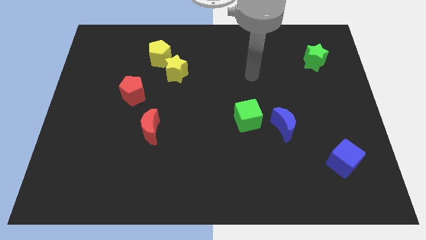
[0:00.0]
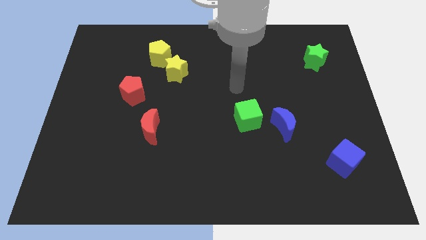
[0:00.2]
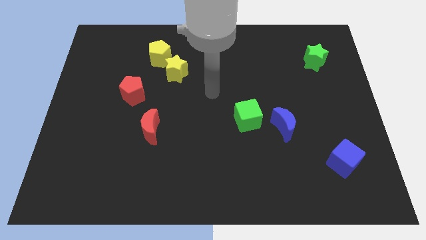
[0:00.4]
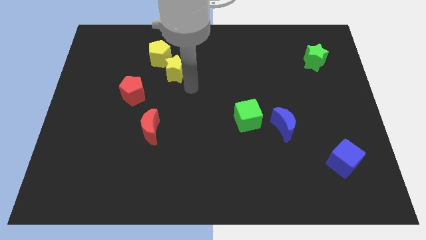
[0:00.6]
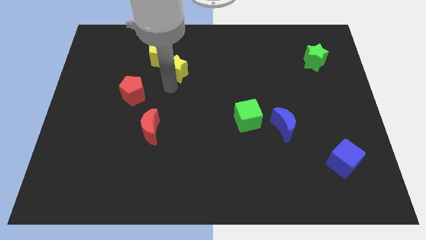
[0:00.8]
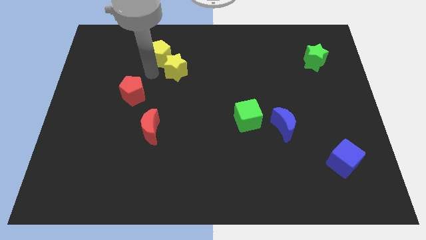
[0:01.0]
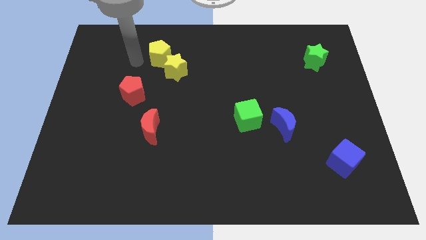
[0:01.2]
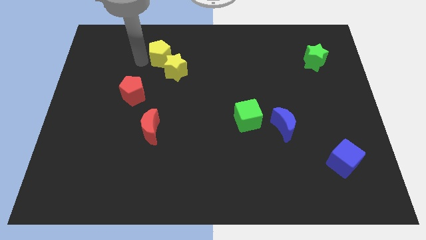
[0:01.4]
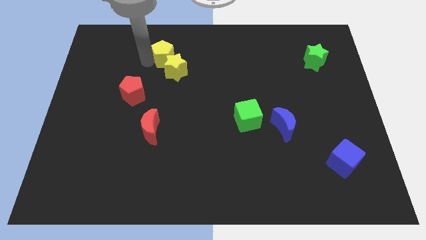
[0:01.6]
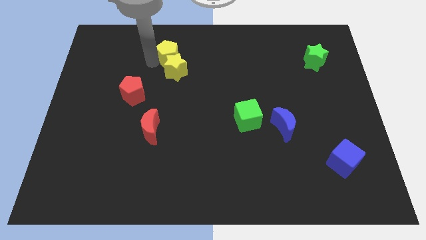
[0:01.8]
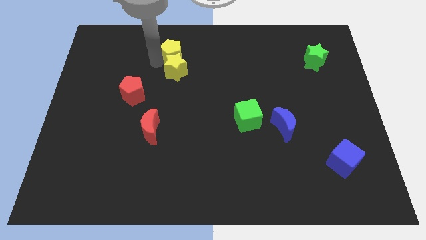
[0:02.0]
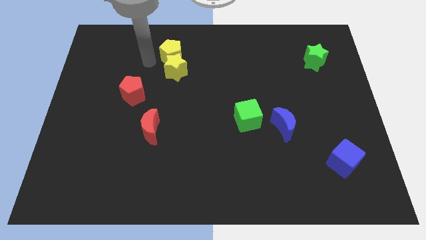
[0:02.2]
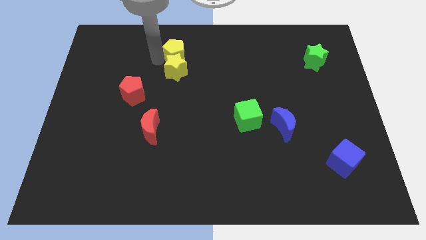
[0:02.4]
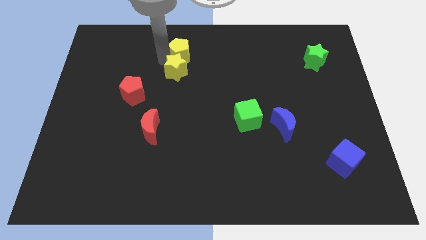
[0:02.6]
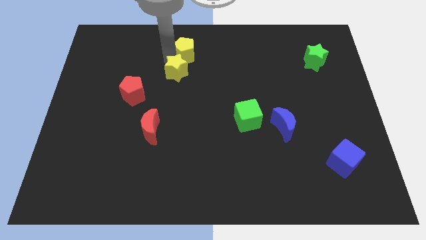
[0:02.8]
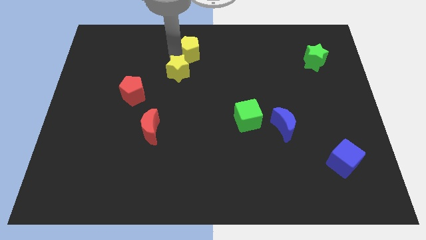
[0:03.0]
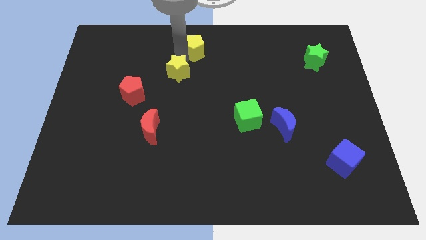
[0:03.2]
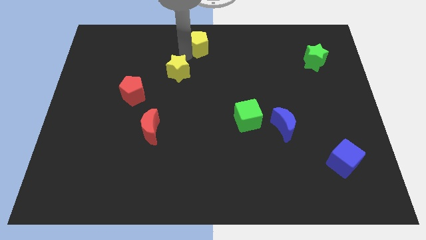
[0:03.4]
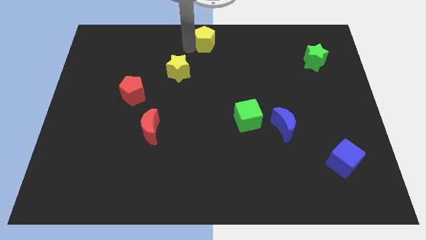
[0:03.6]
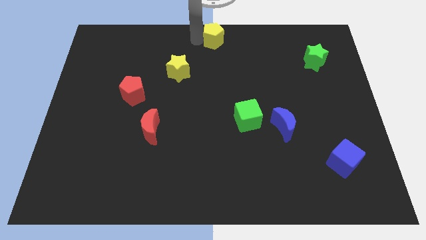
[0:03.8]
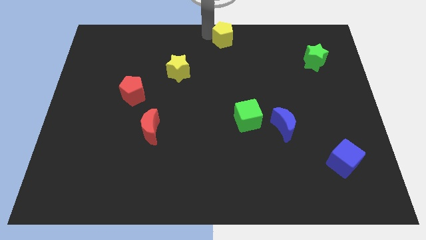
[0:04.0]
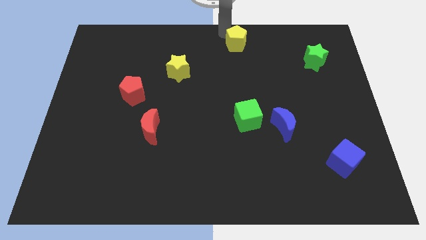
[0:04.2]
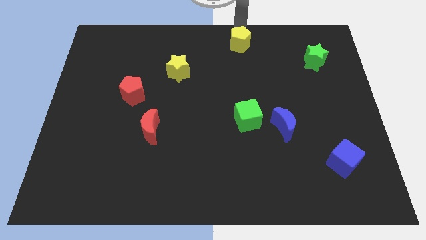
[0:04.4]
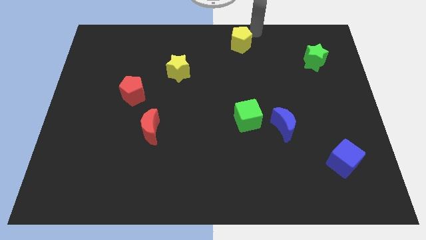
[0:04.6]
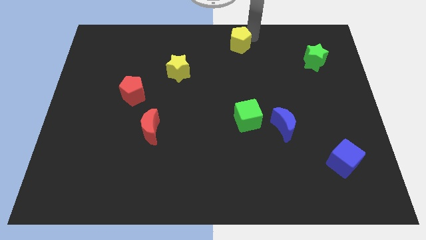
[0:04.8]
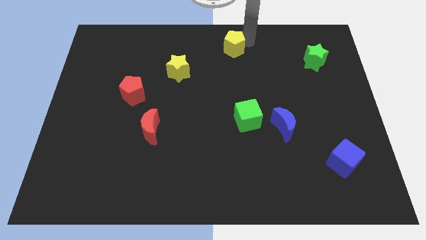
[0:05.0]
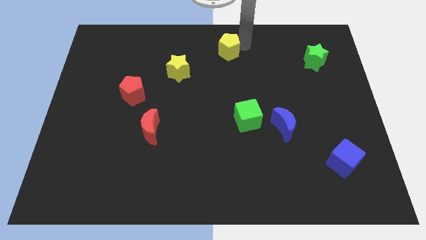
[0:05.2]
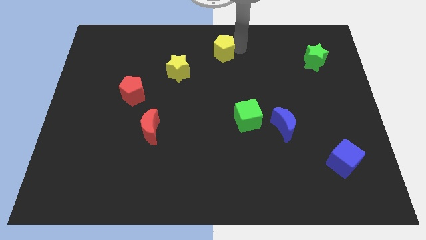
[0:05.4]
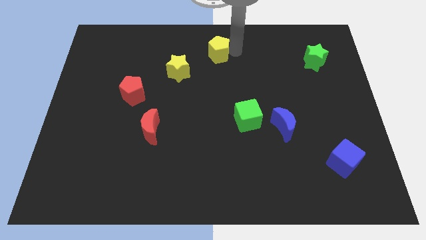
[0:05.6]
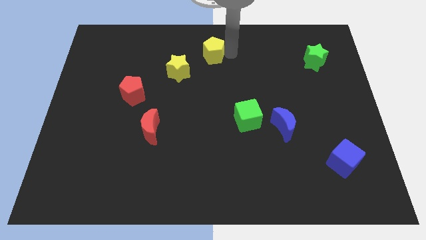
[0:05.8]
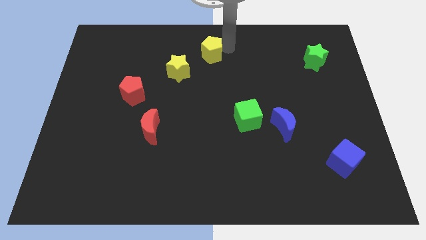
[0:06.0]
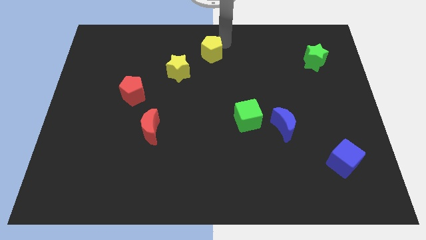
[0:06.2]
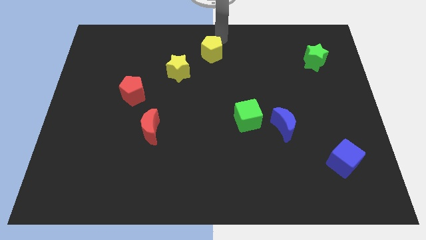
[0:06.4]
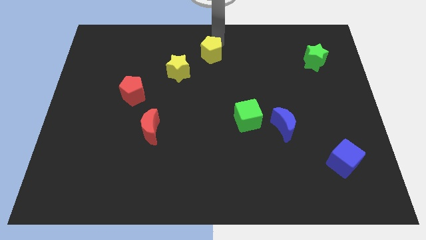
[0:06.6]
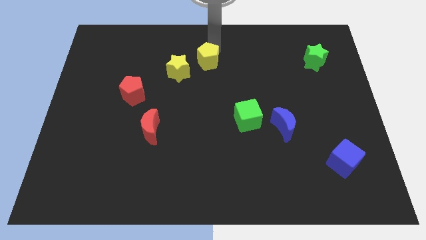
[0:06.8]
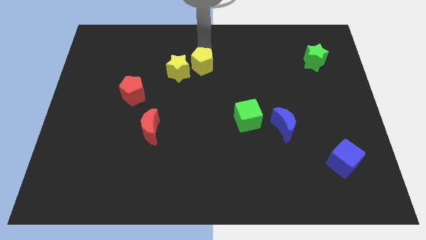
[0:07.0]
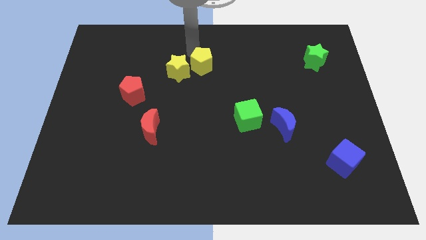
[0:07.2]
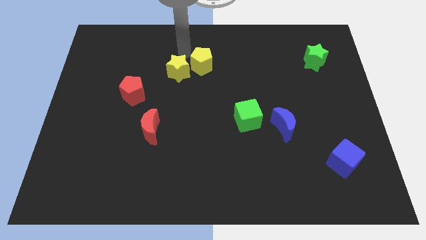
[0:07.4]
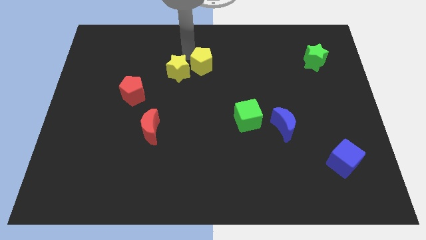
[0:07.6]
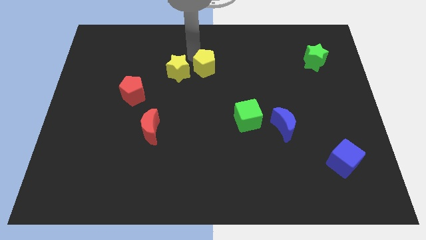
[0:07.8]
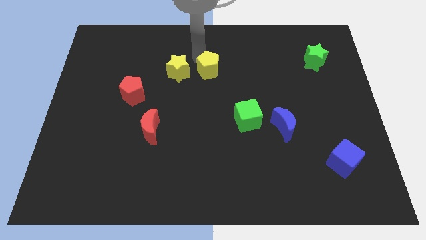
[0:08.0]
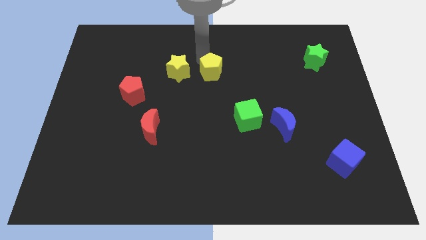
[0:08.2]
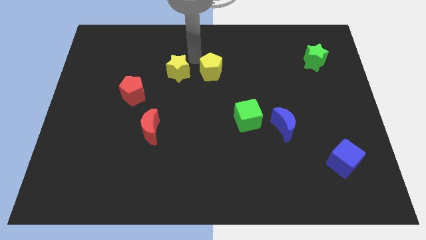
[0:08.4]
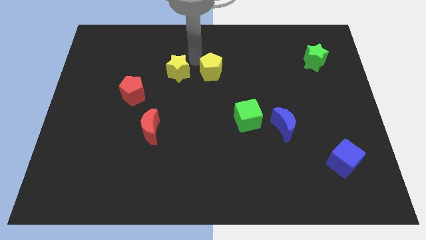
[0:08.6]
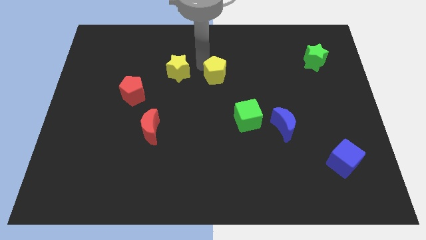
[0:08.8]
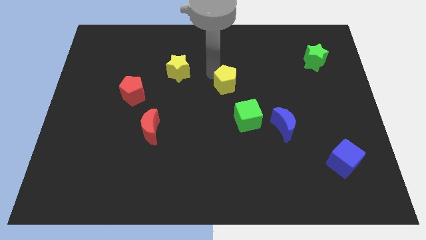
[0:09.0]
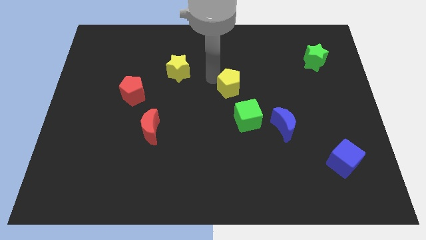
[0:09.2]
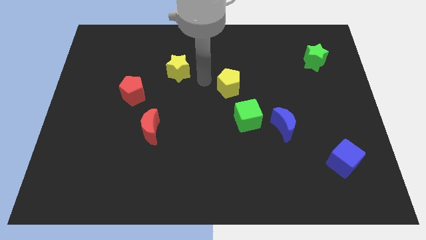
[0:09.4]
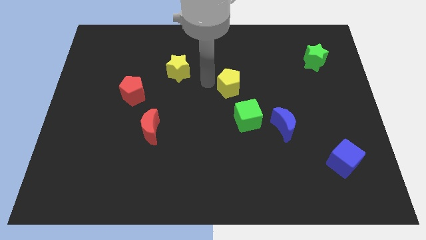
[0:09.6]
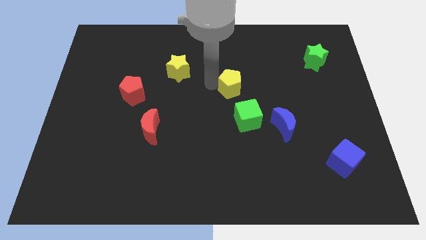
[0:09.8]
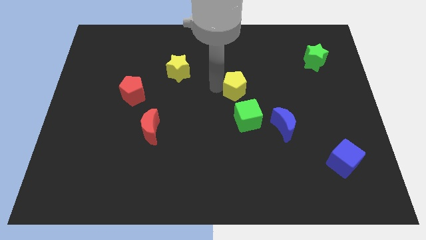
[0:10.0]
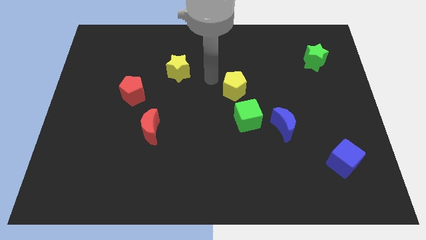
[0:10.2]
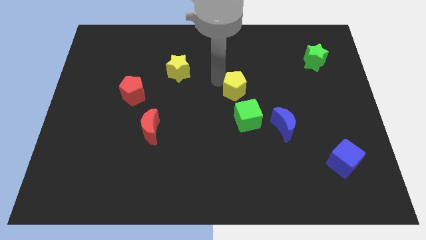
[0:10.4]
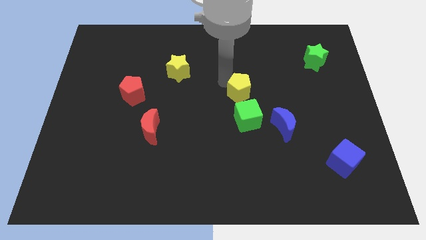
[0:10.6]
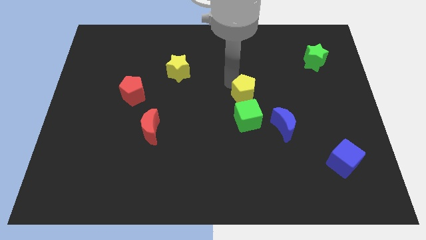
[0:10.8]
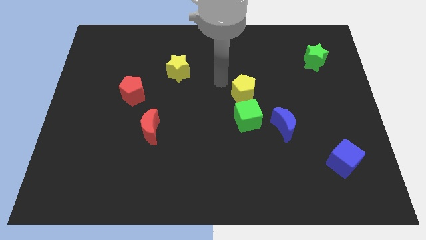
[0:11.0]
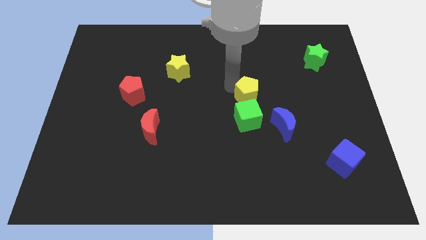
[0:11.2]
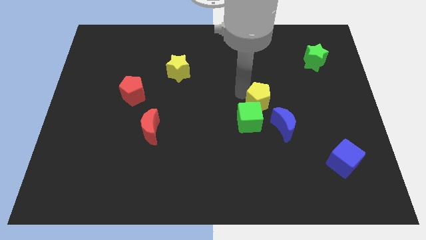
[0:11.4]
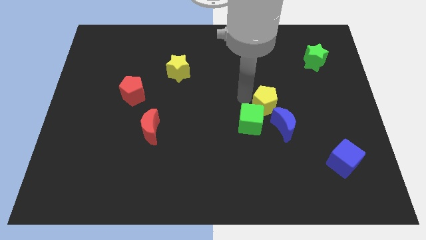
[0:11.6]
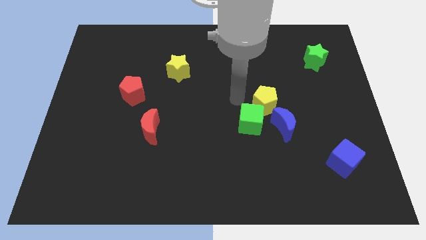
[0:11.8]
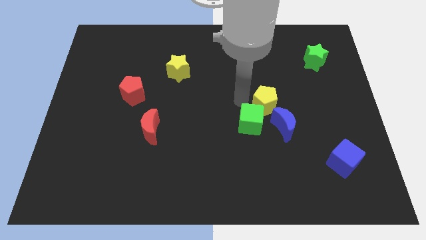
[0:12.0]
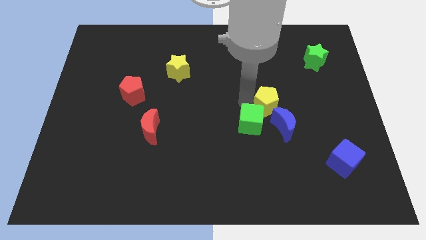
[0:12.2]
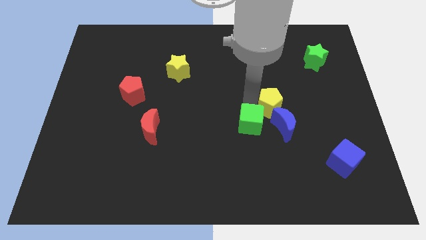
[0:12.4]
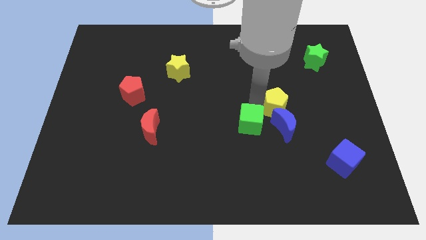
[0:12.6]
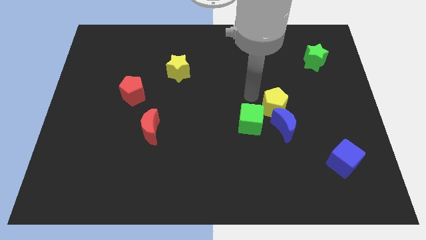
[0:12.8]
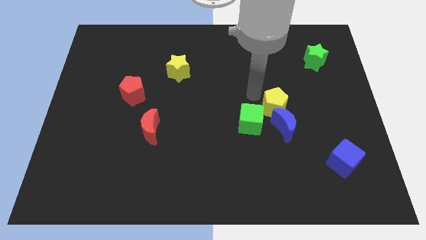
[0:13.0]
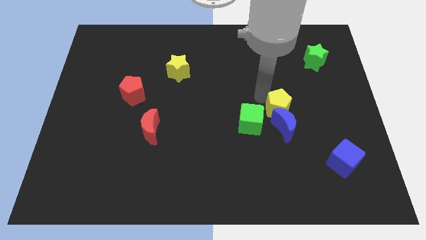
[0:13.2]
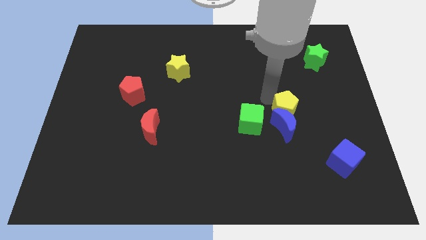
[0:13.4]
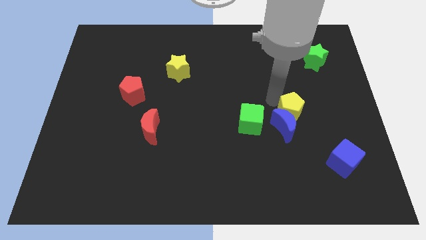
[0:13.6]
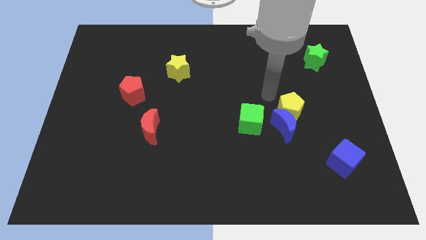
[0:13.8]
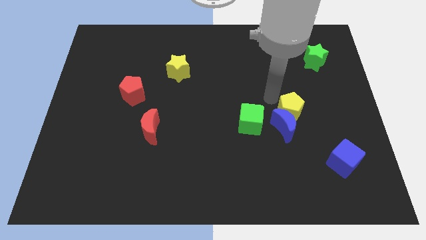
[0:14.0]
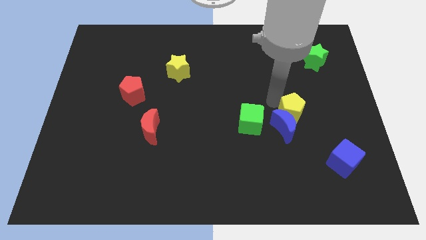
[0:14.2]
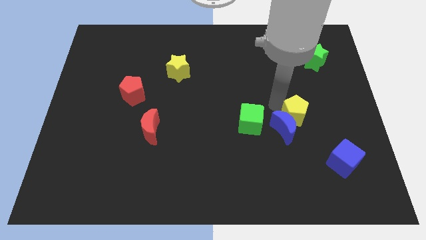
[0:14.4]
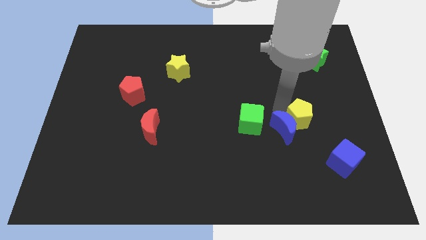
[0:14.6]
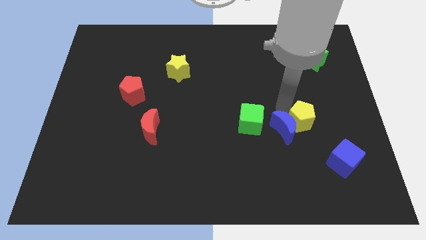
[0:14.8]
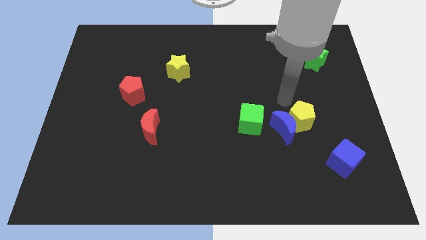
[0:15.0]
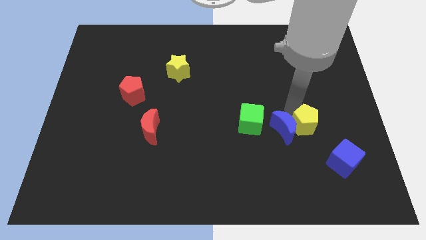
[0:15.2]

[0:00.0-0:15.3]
move the yellow pentagon to the top left of the blue cube
